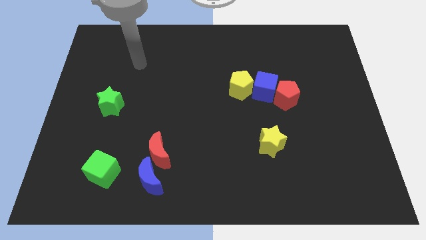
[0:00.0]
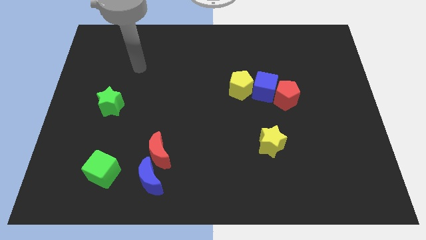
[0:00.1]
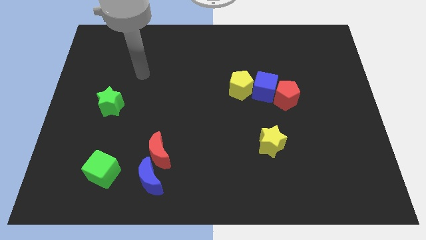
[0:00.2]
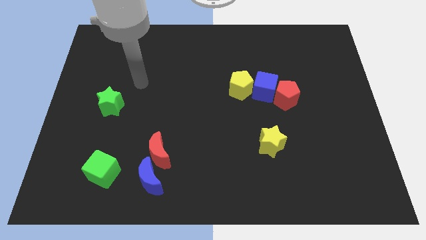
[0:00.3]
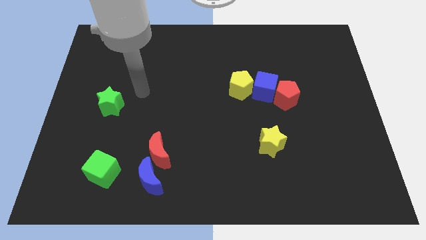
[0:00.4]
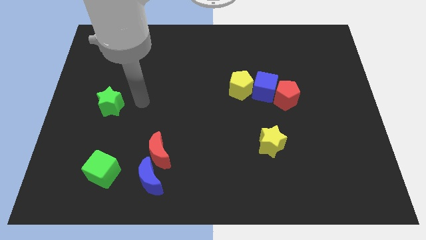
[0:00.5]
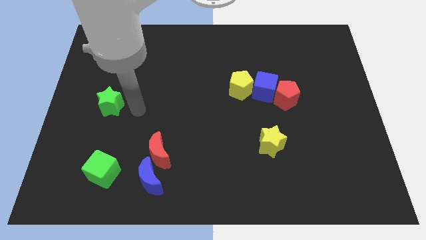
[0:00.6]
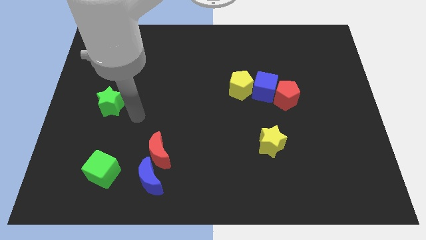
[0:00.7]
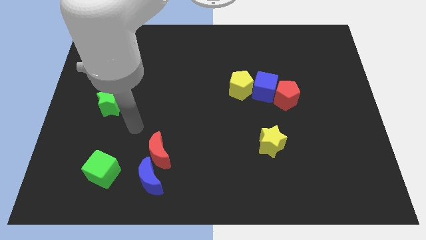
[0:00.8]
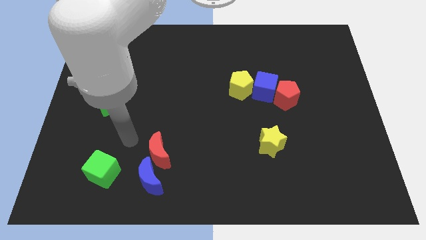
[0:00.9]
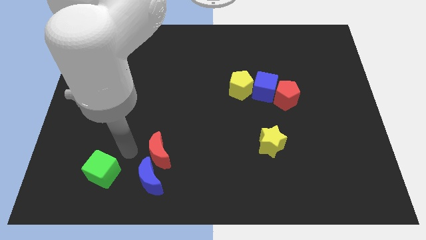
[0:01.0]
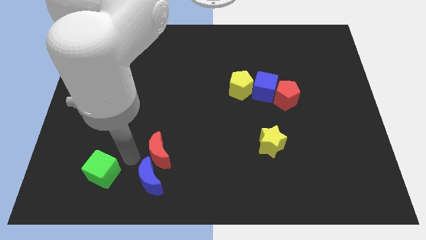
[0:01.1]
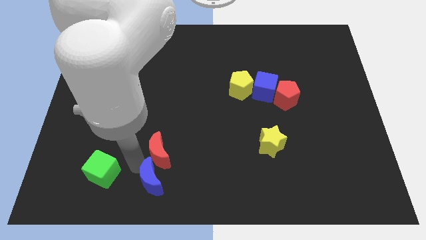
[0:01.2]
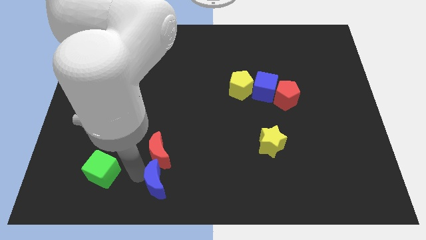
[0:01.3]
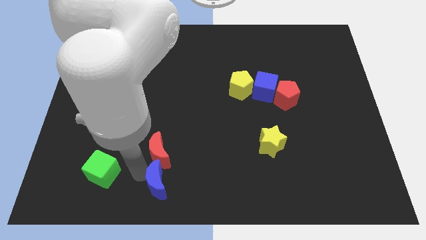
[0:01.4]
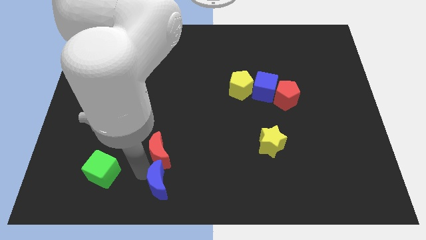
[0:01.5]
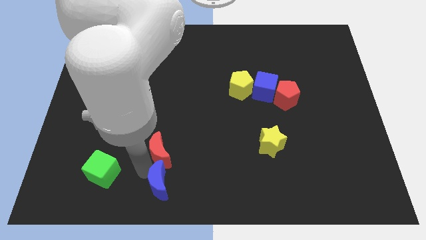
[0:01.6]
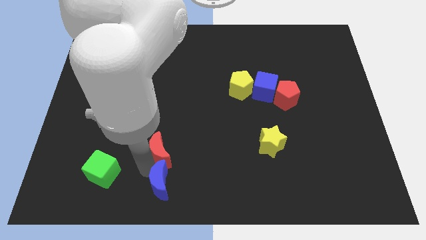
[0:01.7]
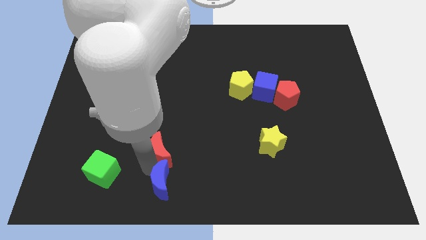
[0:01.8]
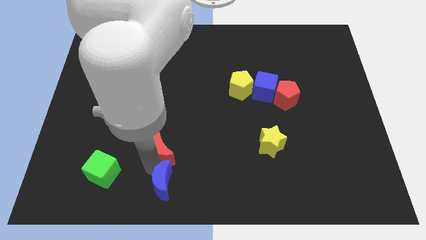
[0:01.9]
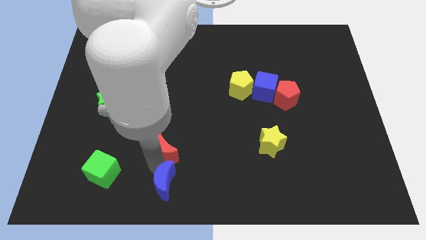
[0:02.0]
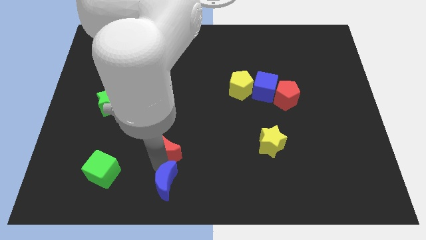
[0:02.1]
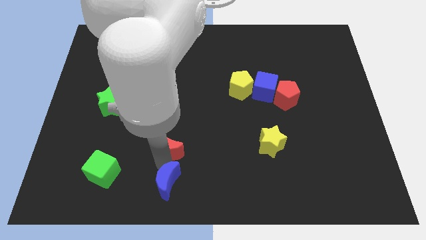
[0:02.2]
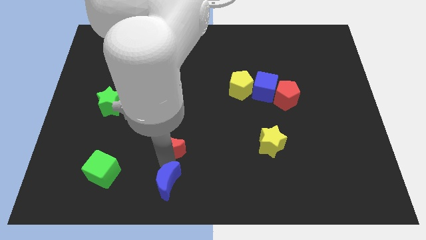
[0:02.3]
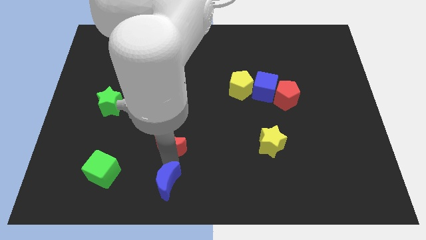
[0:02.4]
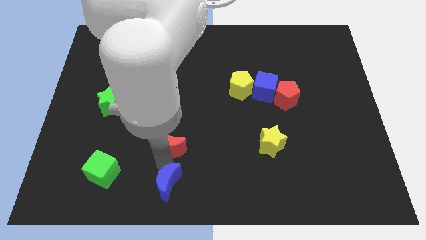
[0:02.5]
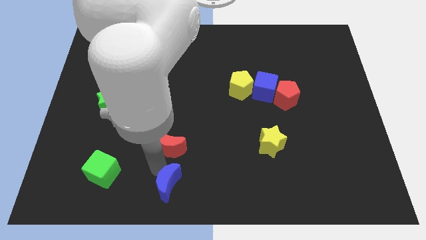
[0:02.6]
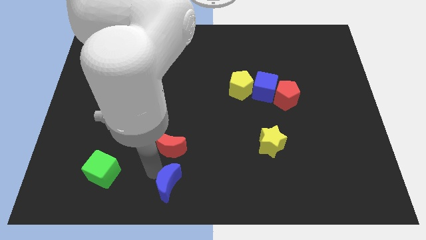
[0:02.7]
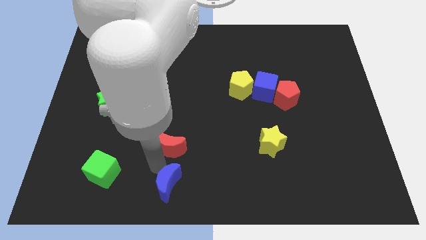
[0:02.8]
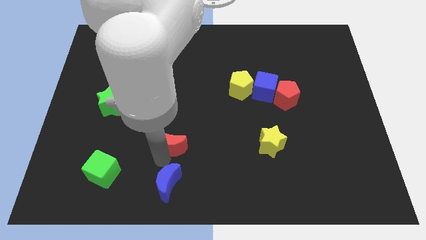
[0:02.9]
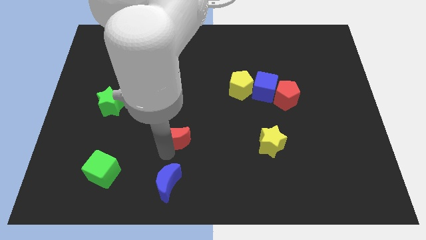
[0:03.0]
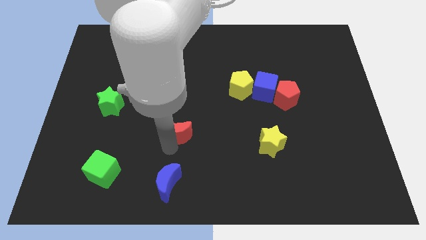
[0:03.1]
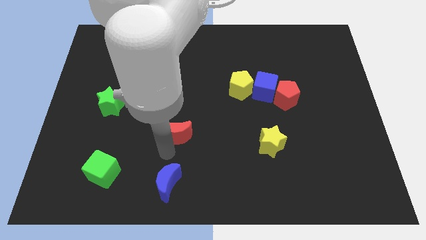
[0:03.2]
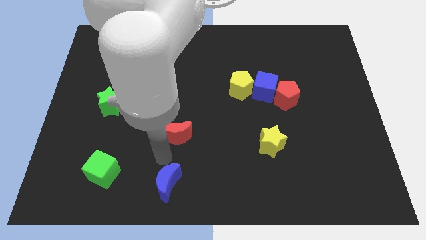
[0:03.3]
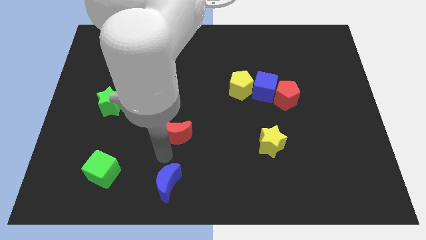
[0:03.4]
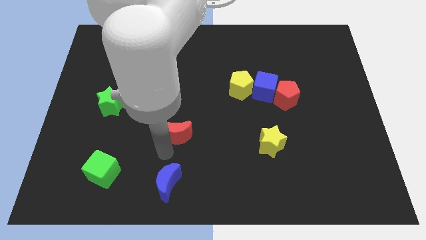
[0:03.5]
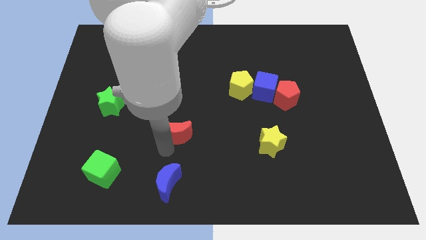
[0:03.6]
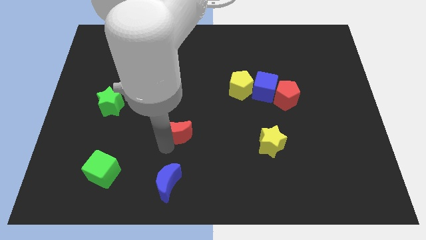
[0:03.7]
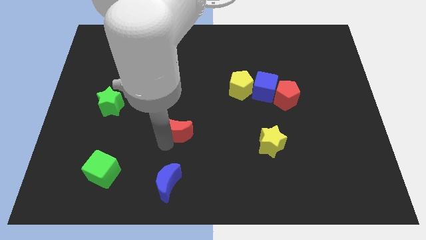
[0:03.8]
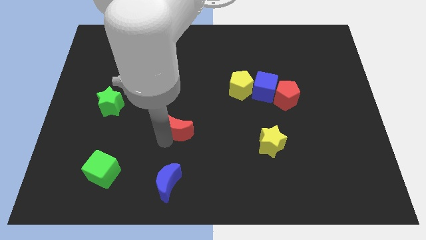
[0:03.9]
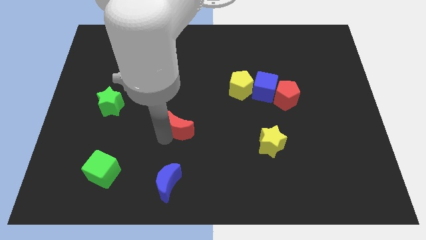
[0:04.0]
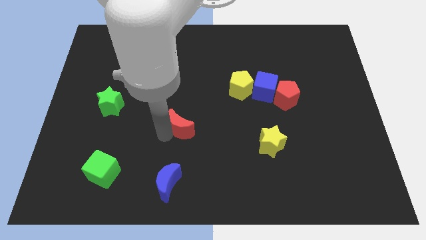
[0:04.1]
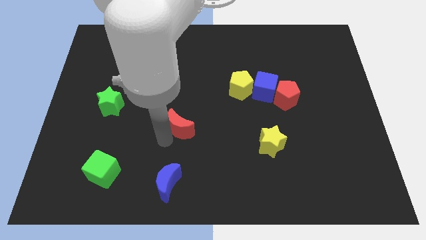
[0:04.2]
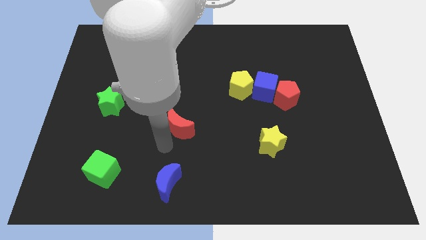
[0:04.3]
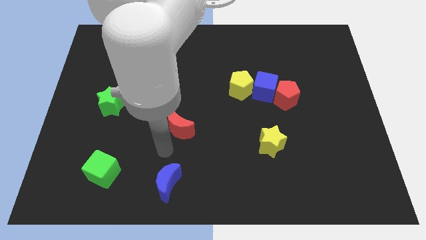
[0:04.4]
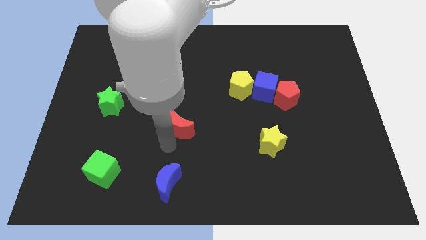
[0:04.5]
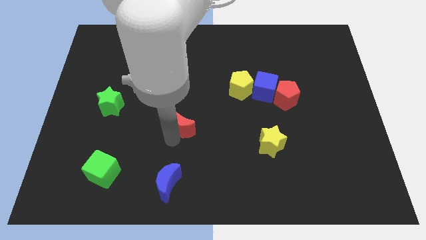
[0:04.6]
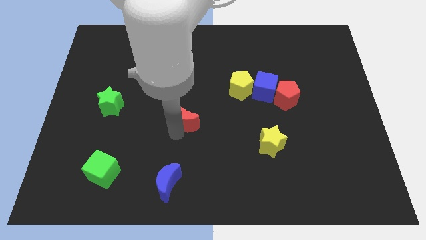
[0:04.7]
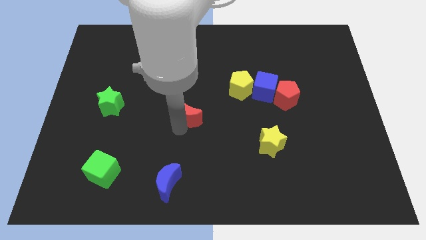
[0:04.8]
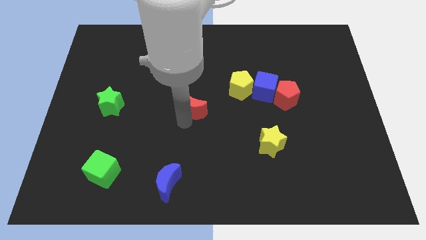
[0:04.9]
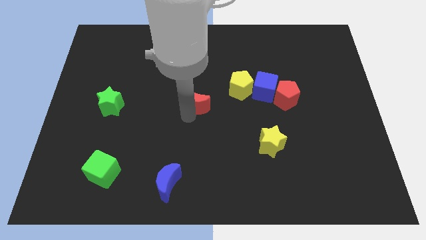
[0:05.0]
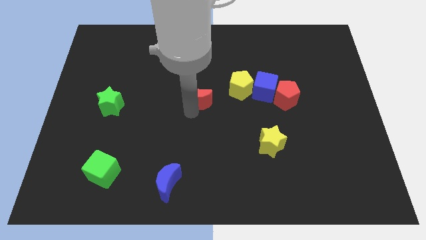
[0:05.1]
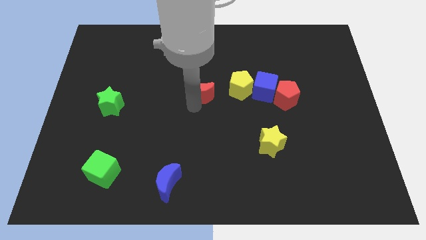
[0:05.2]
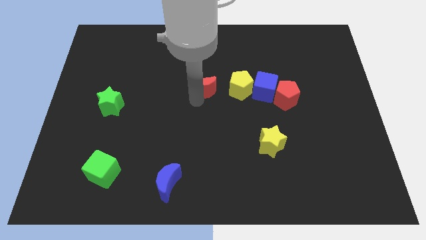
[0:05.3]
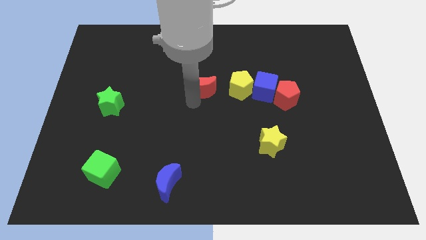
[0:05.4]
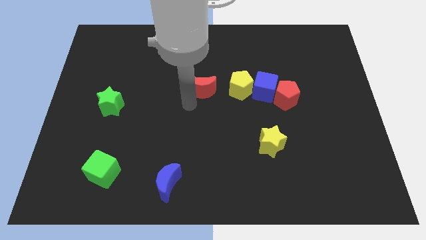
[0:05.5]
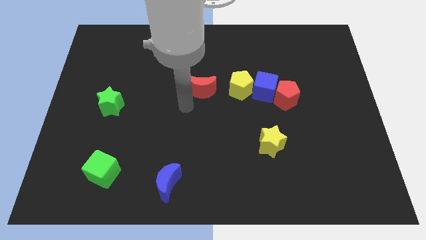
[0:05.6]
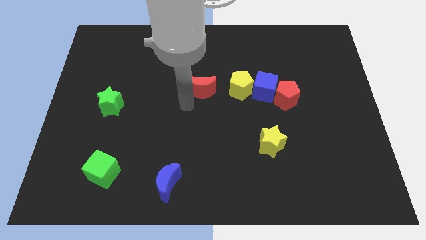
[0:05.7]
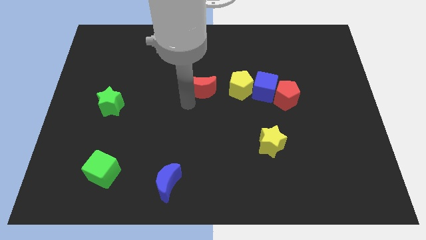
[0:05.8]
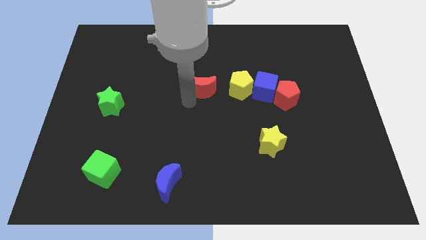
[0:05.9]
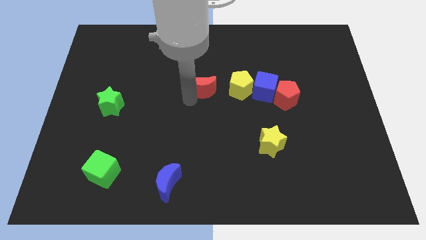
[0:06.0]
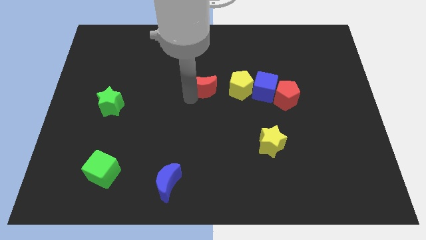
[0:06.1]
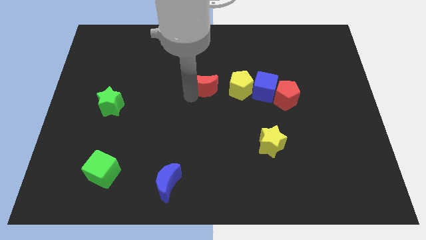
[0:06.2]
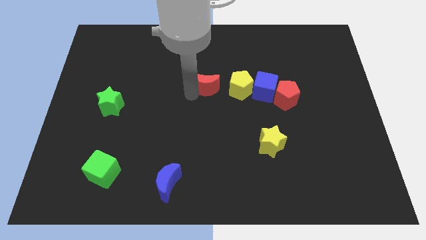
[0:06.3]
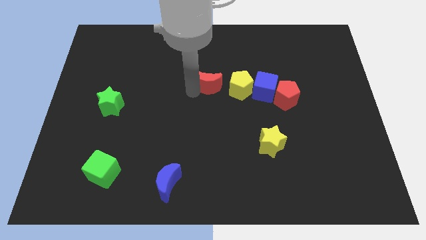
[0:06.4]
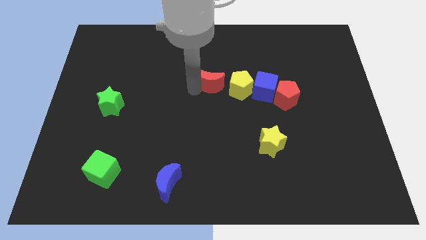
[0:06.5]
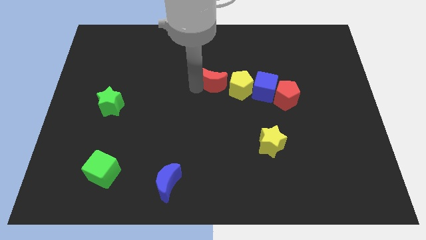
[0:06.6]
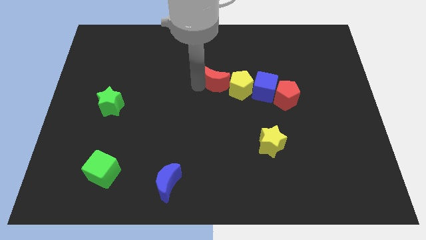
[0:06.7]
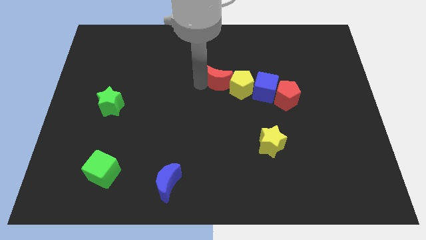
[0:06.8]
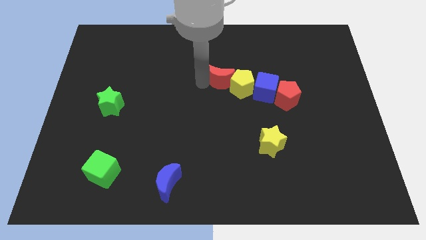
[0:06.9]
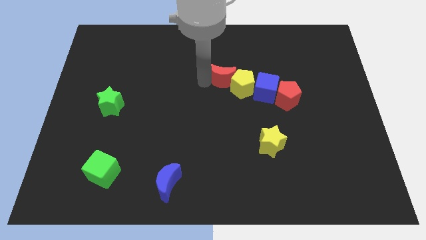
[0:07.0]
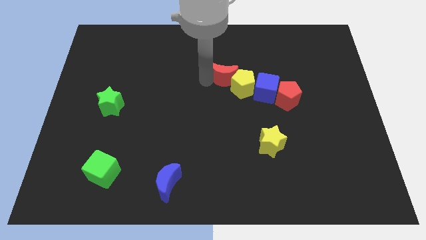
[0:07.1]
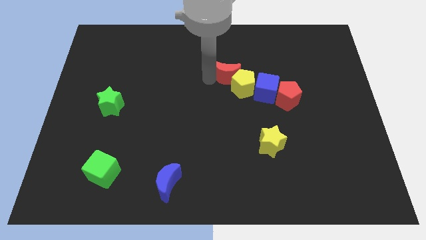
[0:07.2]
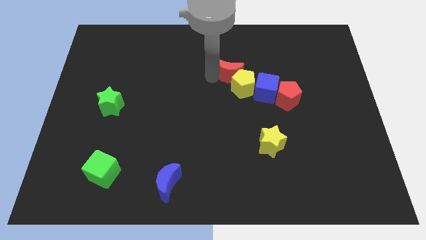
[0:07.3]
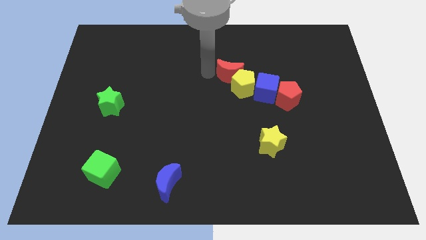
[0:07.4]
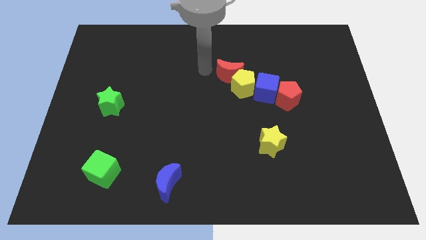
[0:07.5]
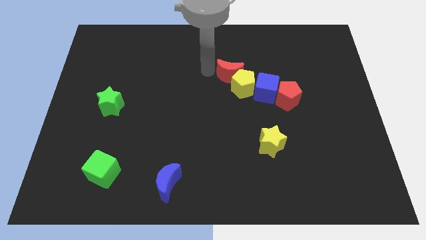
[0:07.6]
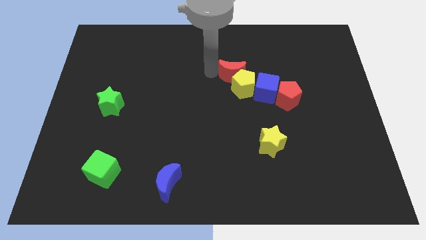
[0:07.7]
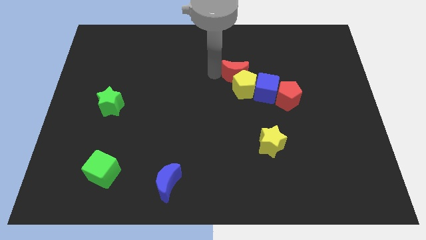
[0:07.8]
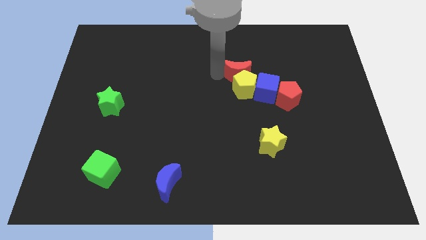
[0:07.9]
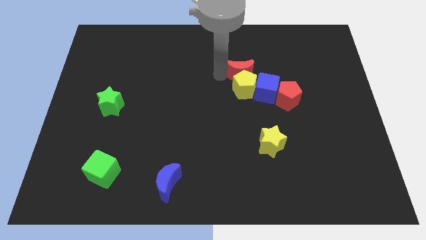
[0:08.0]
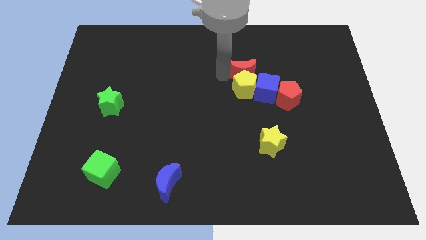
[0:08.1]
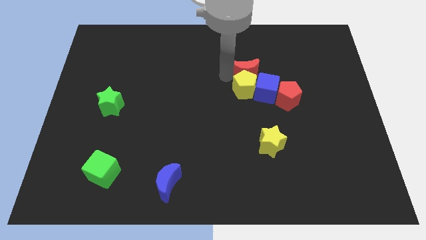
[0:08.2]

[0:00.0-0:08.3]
move the red moon to the top left side of the red pentagon
